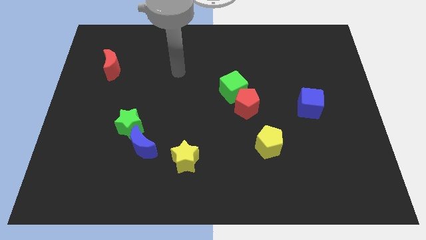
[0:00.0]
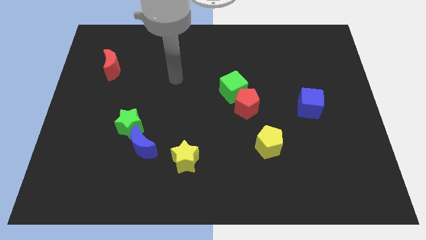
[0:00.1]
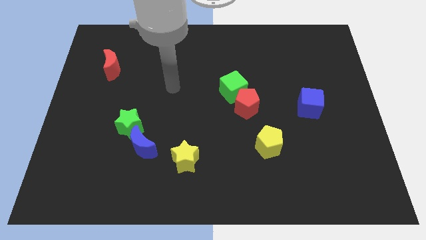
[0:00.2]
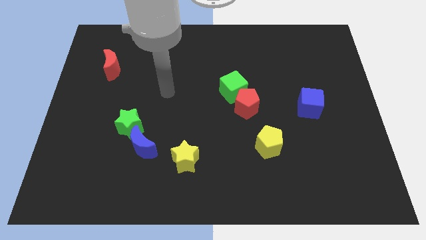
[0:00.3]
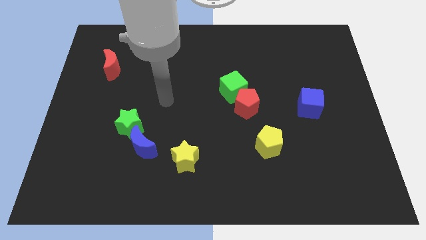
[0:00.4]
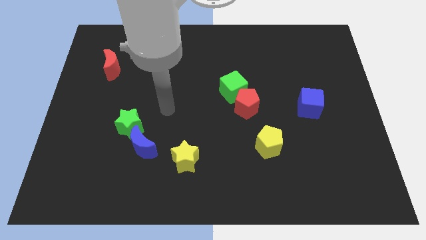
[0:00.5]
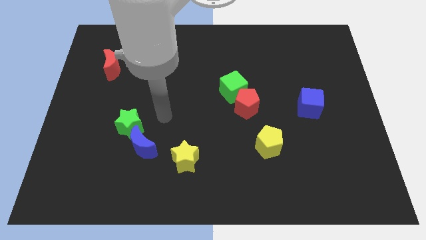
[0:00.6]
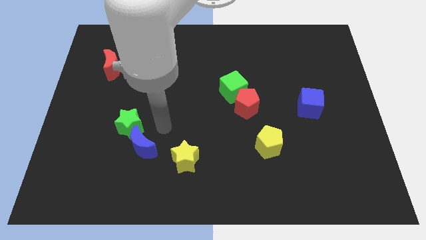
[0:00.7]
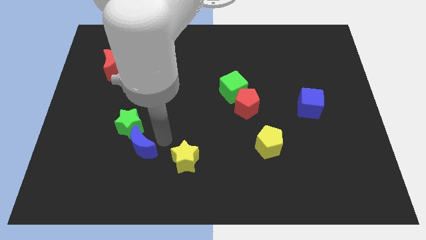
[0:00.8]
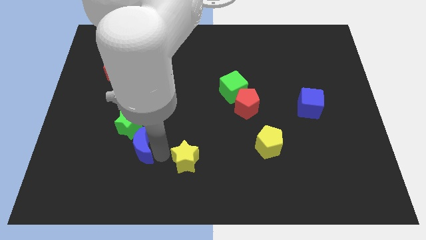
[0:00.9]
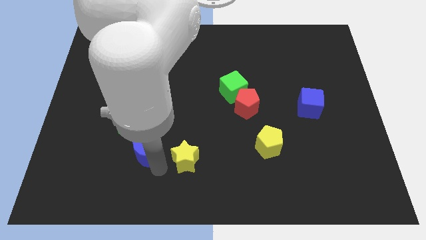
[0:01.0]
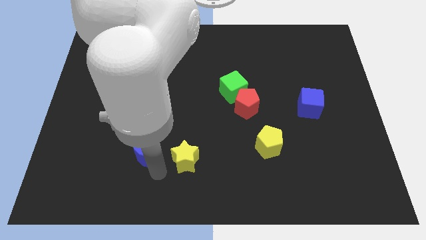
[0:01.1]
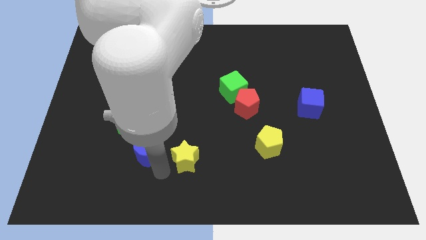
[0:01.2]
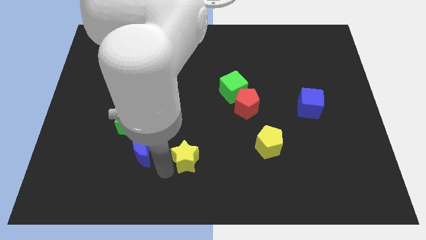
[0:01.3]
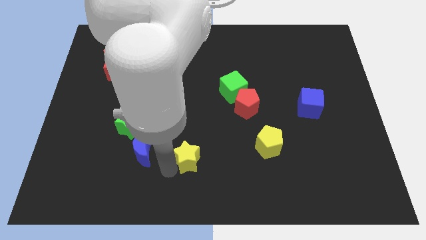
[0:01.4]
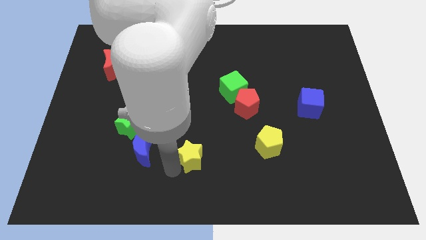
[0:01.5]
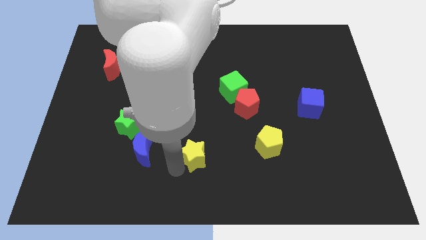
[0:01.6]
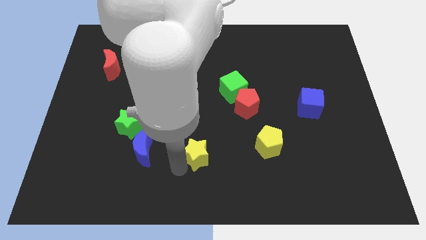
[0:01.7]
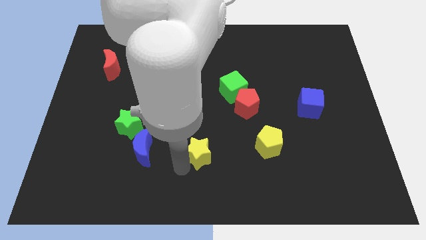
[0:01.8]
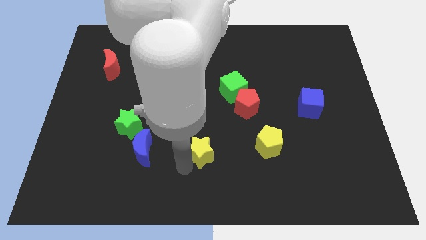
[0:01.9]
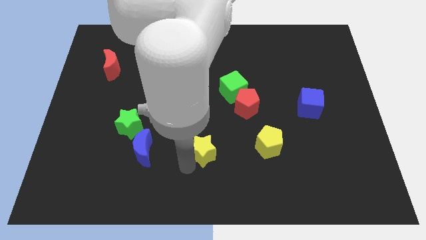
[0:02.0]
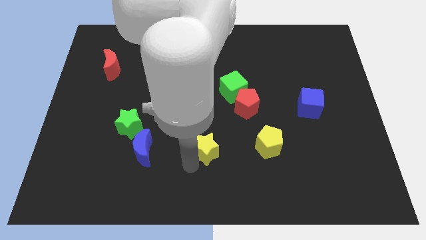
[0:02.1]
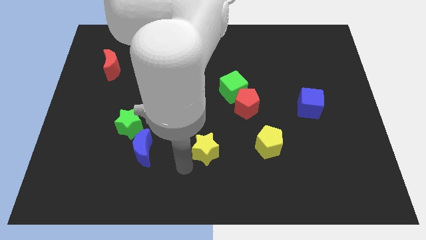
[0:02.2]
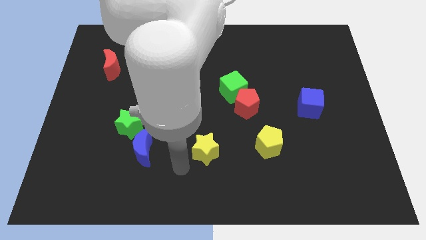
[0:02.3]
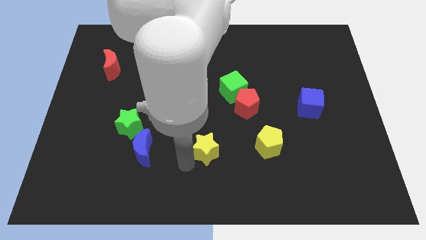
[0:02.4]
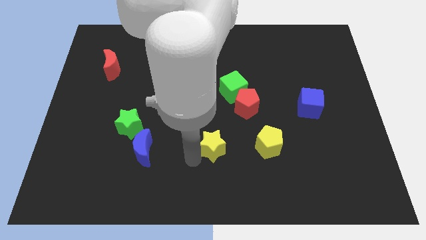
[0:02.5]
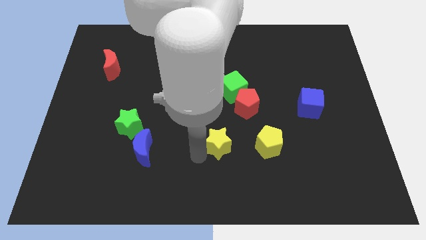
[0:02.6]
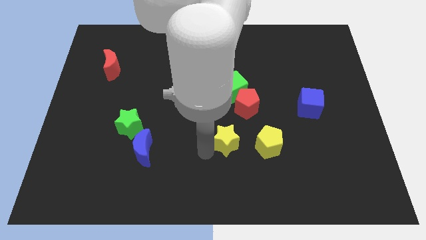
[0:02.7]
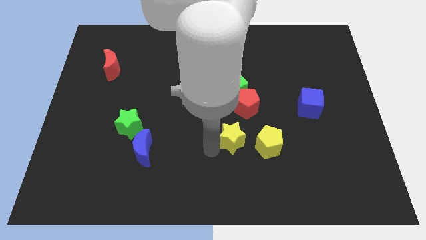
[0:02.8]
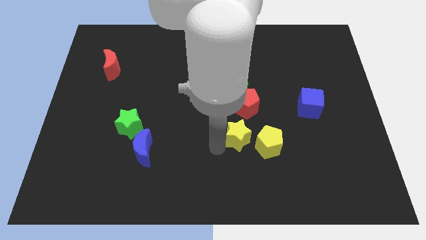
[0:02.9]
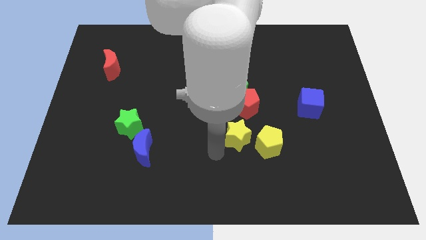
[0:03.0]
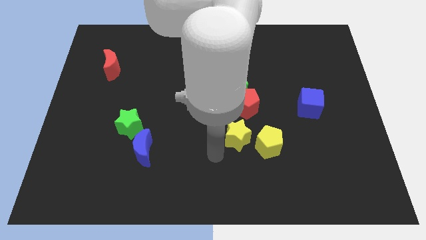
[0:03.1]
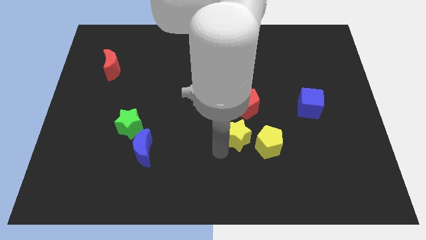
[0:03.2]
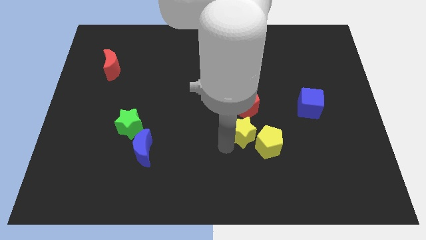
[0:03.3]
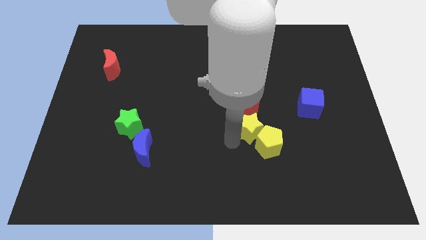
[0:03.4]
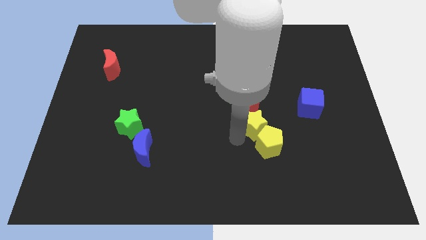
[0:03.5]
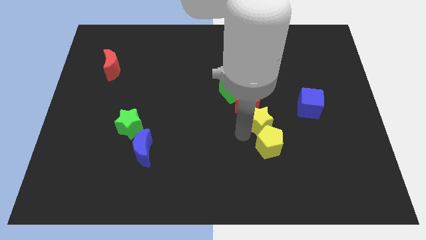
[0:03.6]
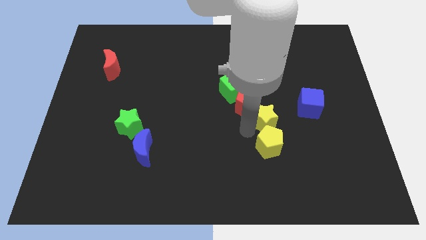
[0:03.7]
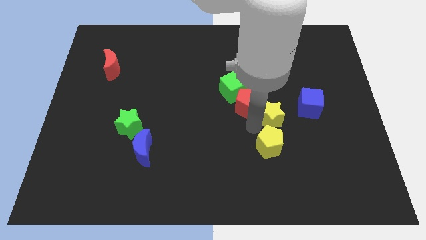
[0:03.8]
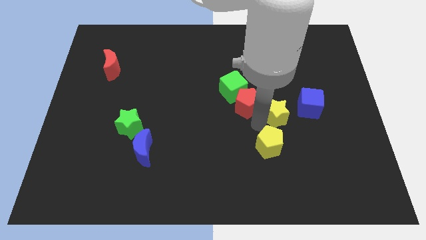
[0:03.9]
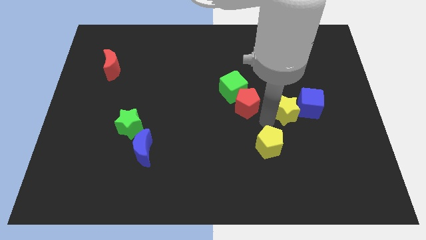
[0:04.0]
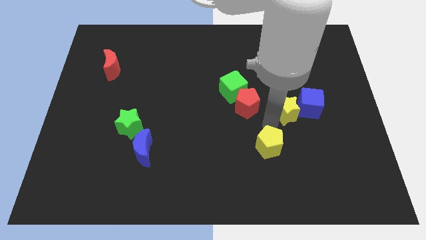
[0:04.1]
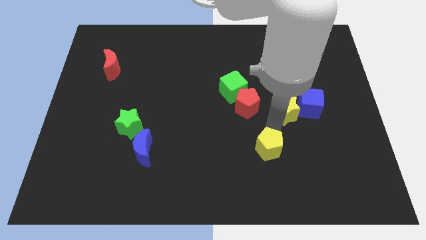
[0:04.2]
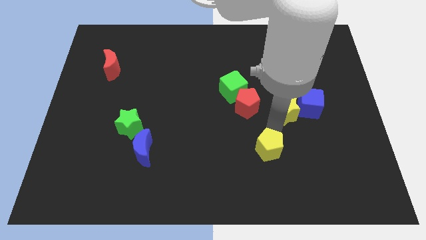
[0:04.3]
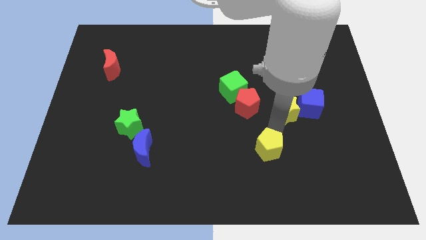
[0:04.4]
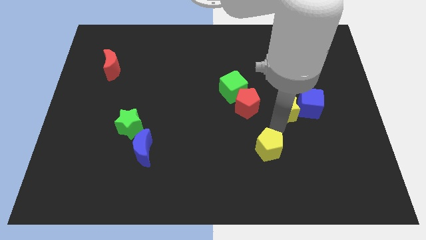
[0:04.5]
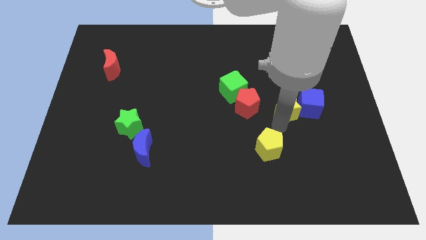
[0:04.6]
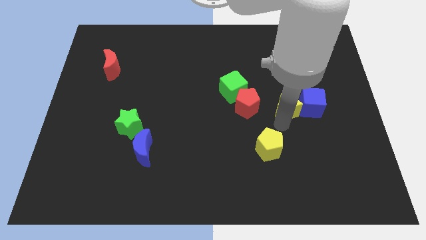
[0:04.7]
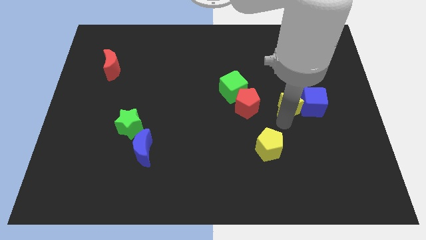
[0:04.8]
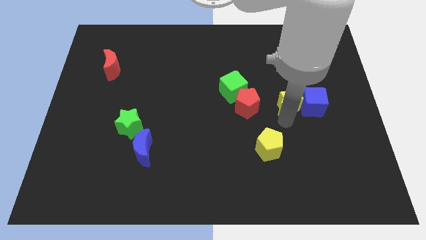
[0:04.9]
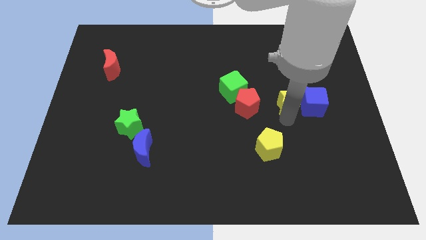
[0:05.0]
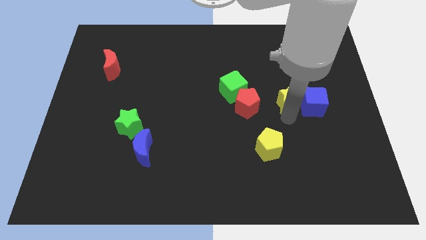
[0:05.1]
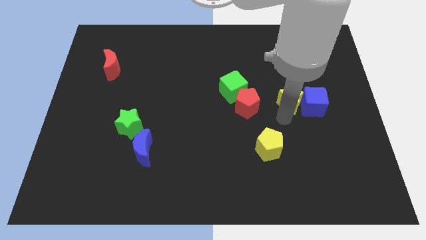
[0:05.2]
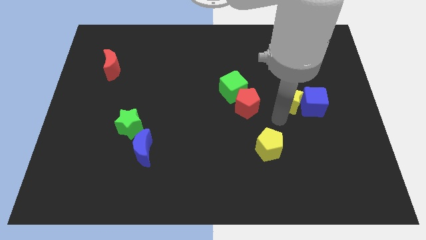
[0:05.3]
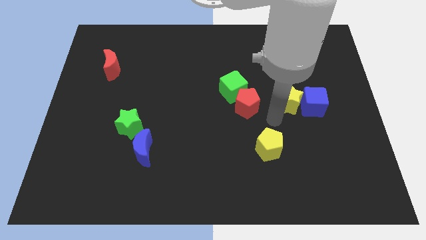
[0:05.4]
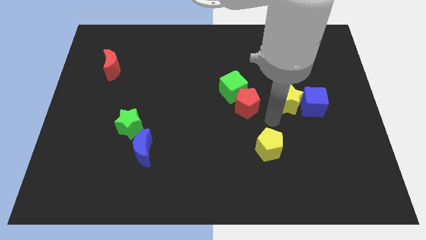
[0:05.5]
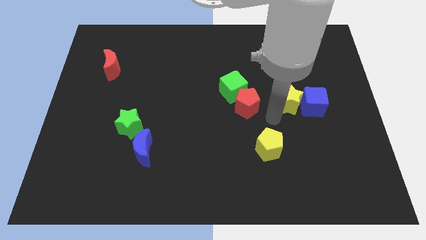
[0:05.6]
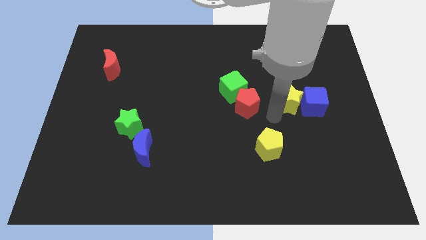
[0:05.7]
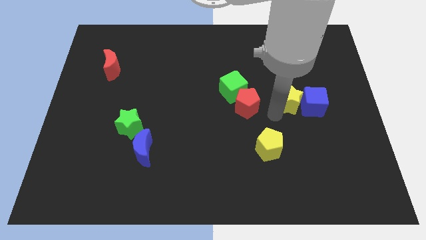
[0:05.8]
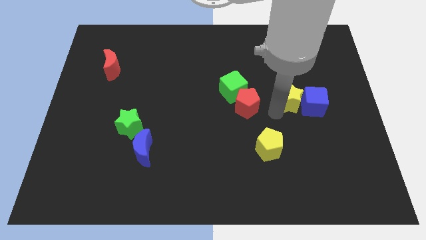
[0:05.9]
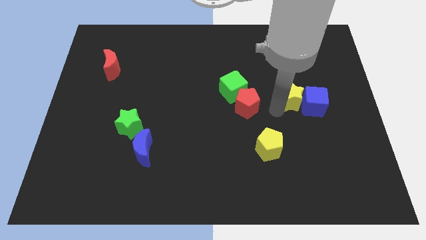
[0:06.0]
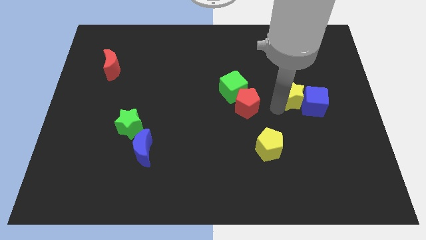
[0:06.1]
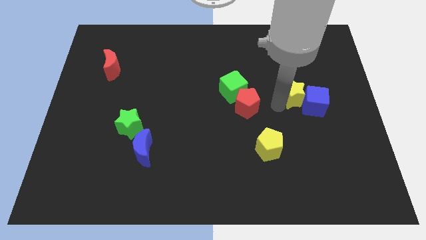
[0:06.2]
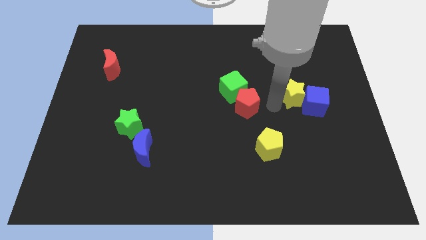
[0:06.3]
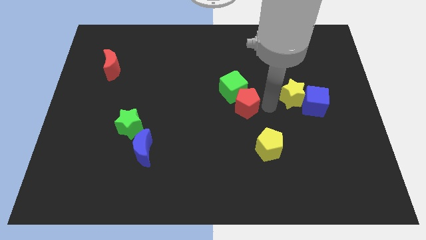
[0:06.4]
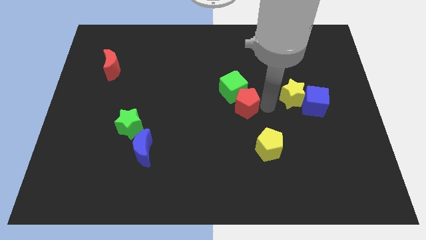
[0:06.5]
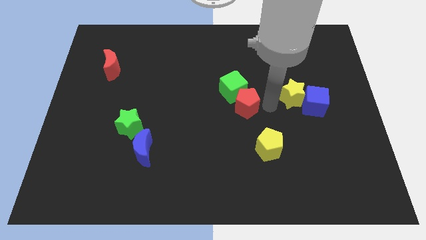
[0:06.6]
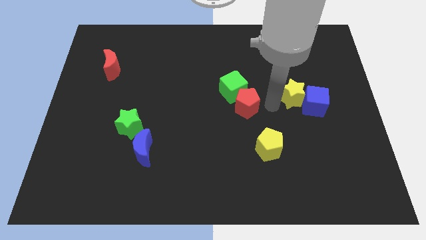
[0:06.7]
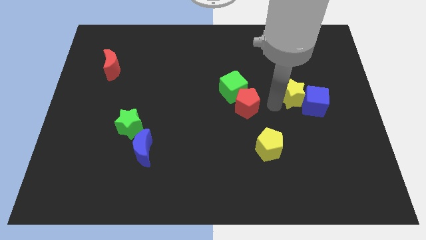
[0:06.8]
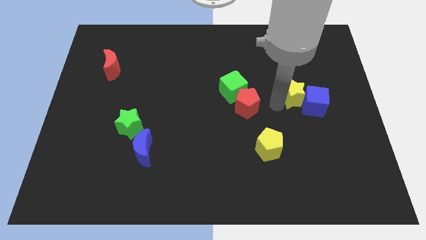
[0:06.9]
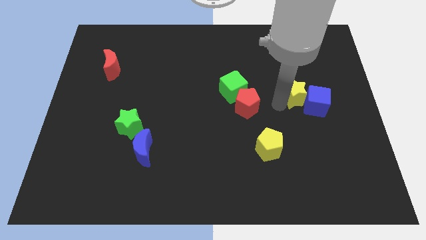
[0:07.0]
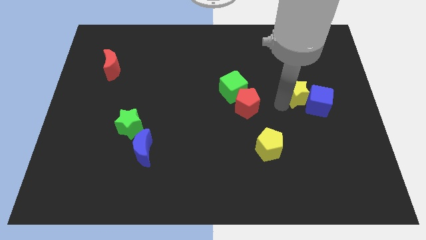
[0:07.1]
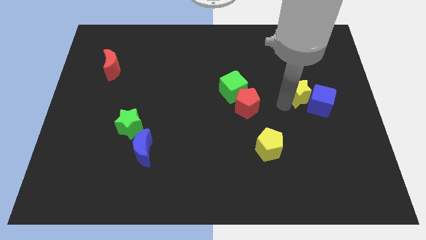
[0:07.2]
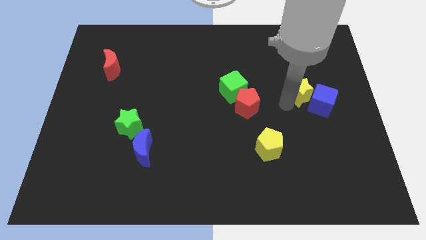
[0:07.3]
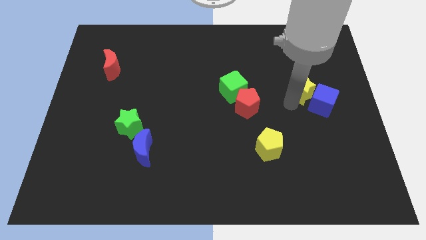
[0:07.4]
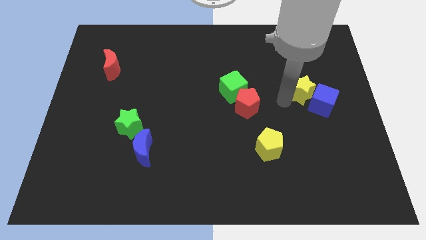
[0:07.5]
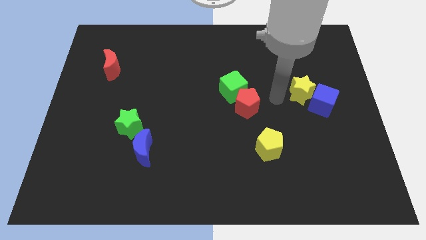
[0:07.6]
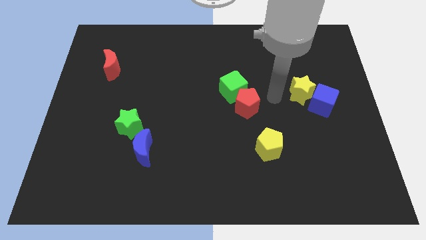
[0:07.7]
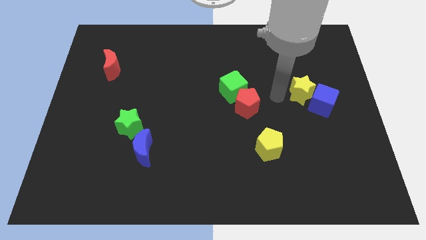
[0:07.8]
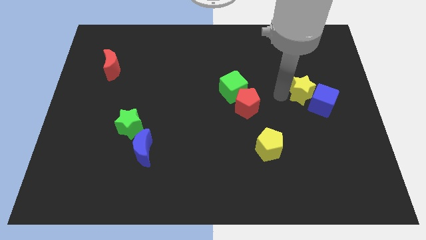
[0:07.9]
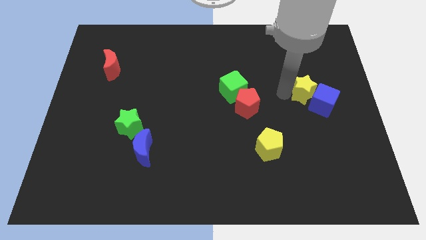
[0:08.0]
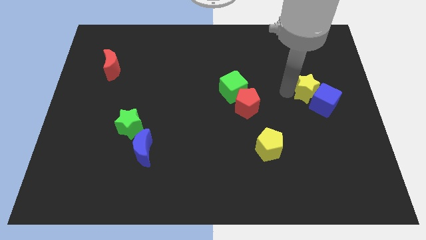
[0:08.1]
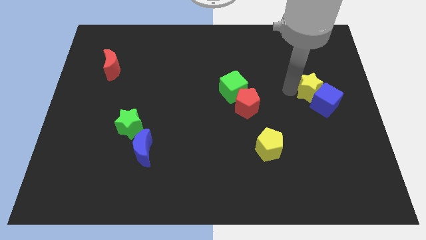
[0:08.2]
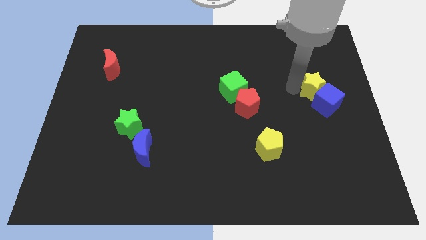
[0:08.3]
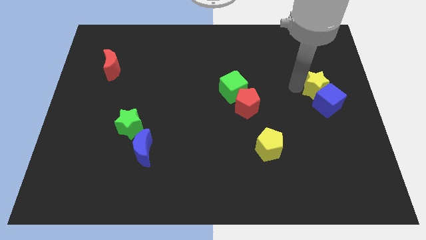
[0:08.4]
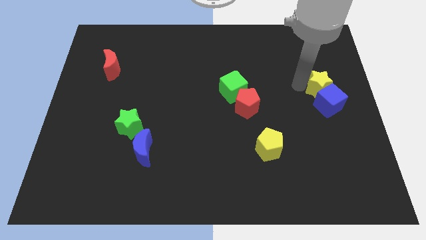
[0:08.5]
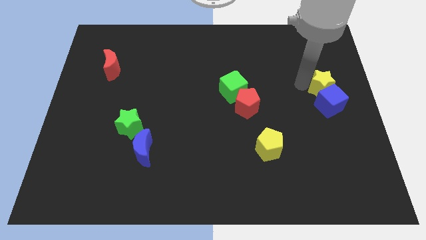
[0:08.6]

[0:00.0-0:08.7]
push the yellow star diagonally up and to the right of the blue cube
